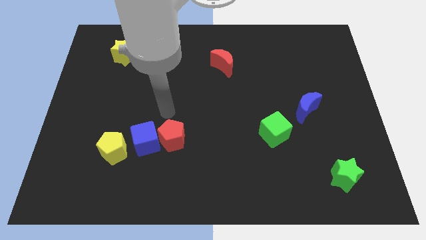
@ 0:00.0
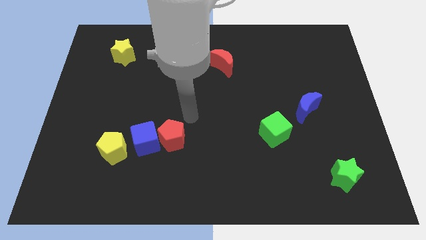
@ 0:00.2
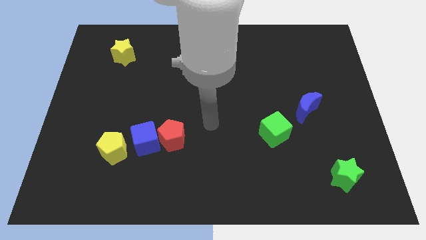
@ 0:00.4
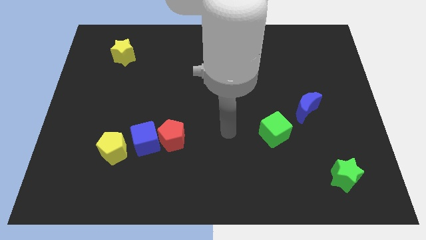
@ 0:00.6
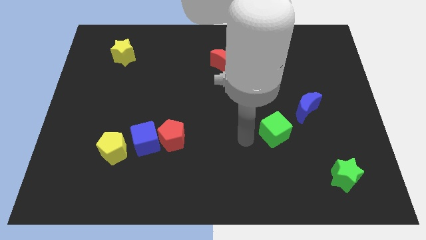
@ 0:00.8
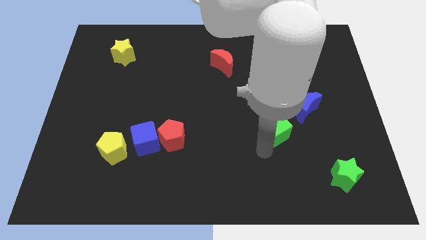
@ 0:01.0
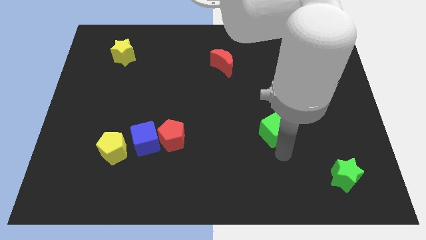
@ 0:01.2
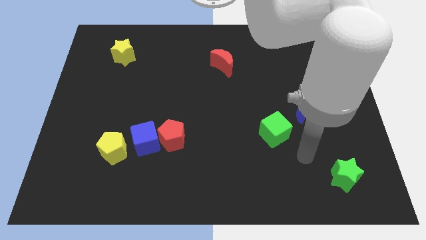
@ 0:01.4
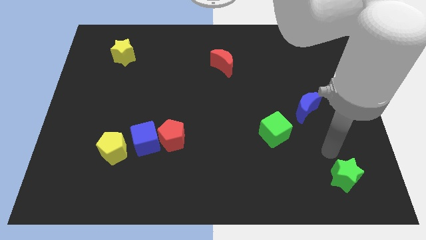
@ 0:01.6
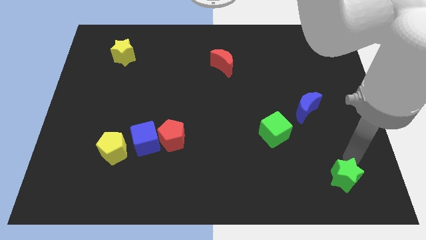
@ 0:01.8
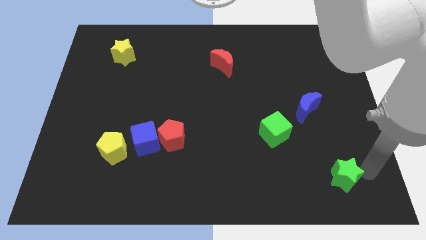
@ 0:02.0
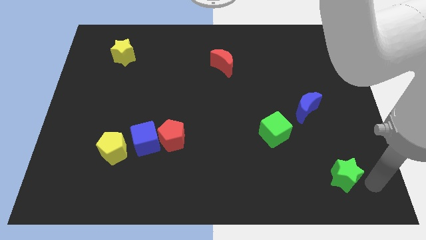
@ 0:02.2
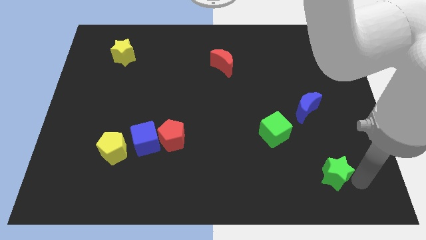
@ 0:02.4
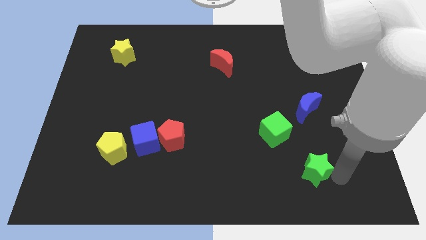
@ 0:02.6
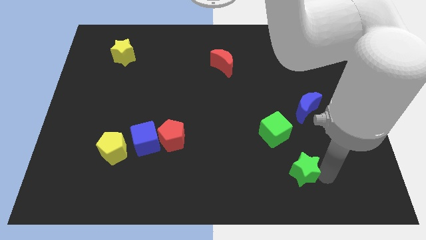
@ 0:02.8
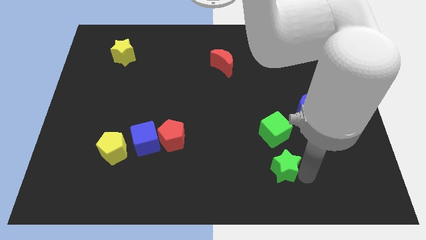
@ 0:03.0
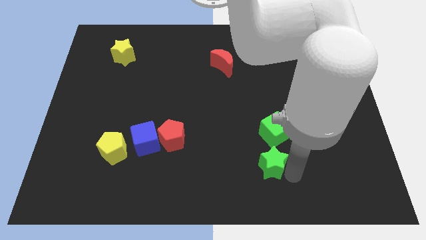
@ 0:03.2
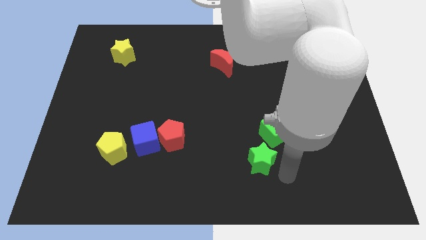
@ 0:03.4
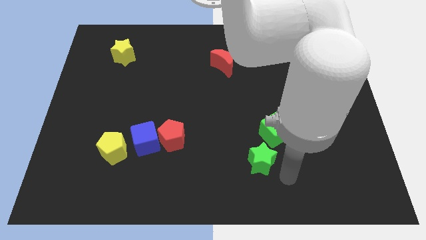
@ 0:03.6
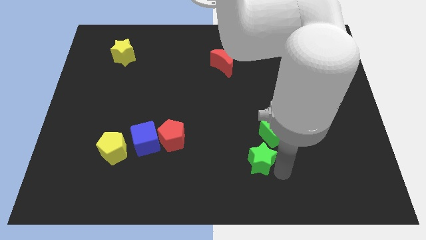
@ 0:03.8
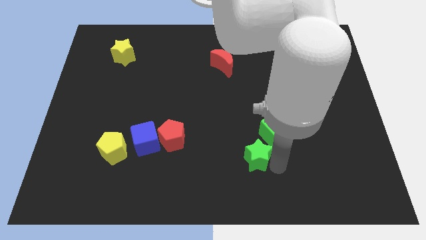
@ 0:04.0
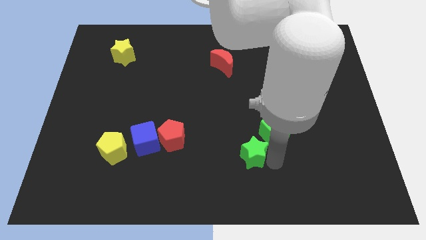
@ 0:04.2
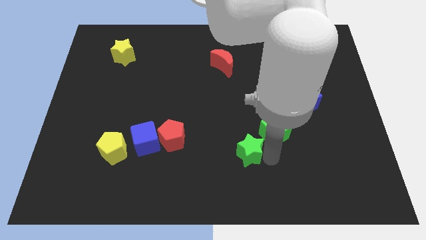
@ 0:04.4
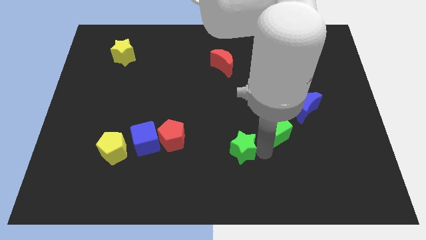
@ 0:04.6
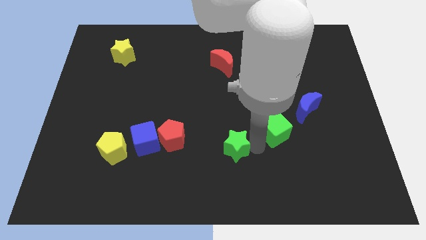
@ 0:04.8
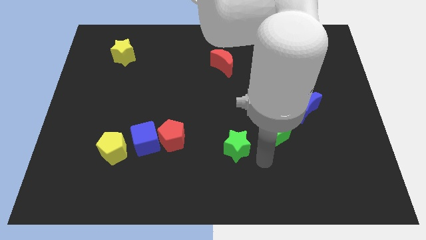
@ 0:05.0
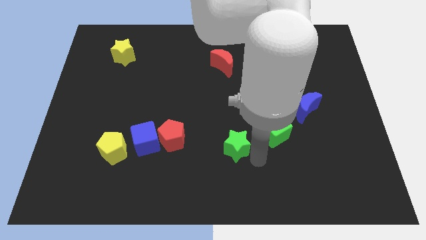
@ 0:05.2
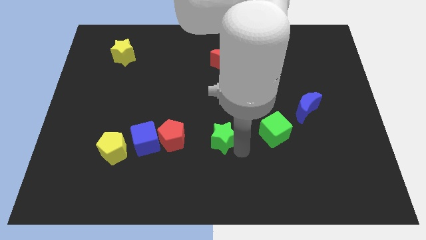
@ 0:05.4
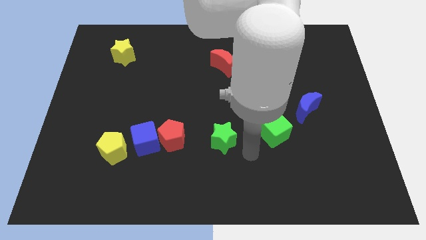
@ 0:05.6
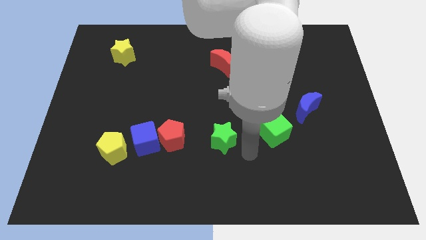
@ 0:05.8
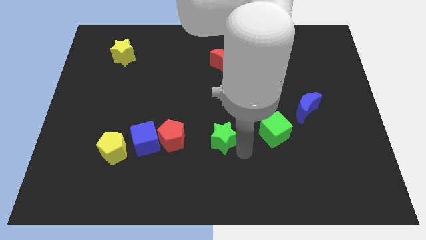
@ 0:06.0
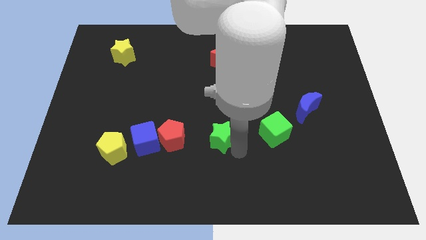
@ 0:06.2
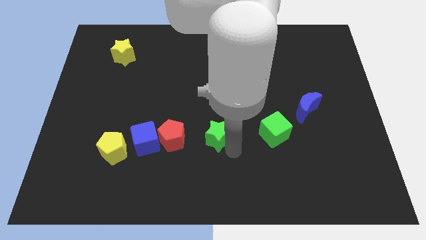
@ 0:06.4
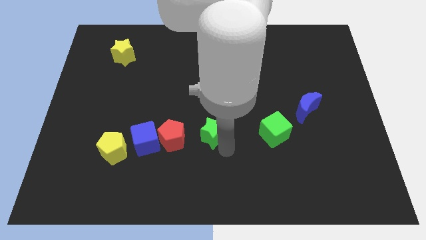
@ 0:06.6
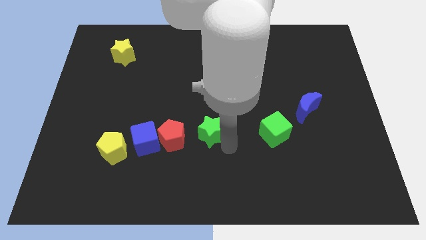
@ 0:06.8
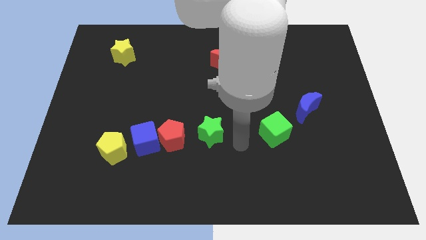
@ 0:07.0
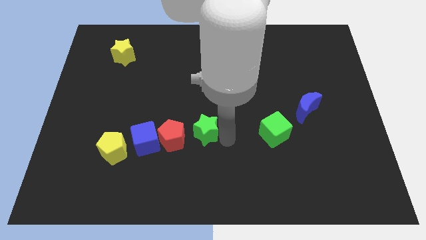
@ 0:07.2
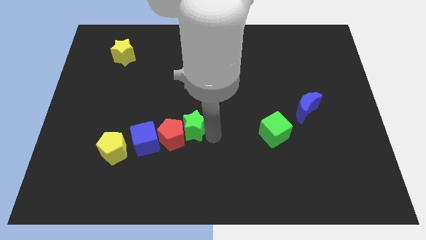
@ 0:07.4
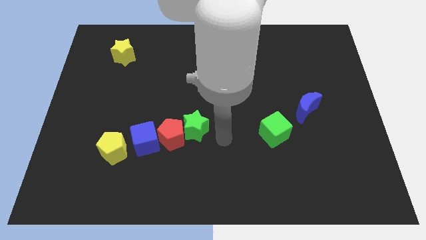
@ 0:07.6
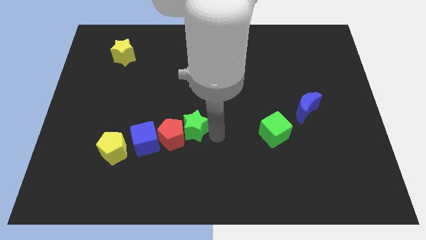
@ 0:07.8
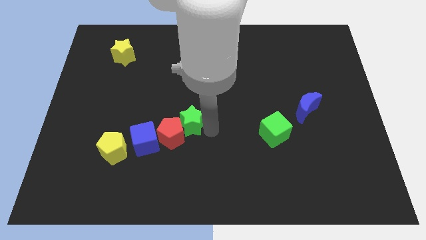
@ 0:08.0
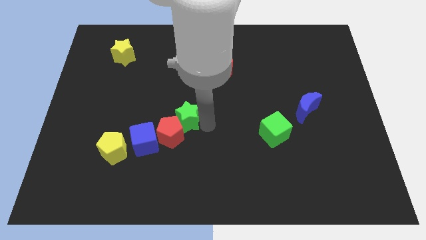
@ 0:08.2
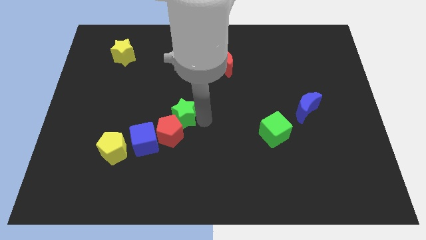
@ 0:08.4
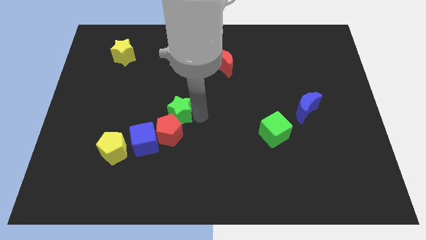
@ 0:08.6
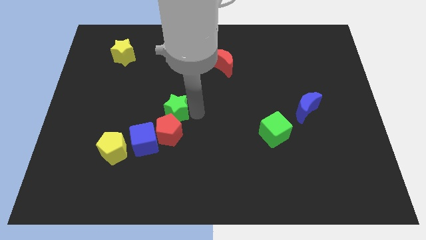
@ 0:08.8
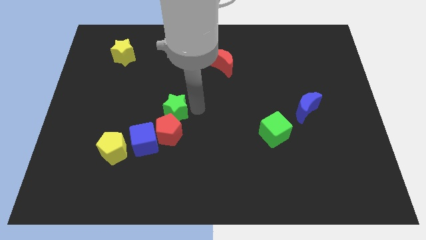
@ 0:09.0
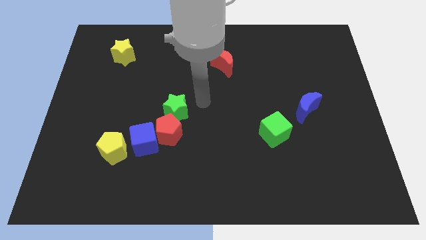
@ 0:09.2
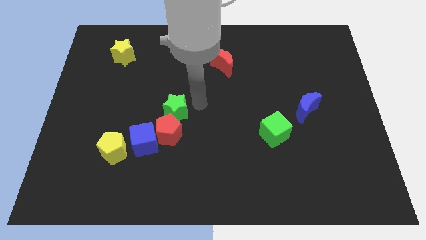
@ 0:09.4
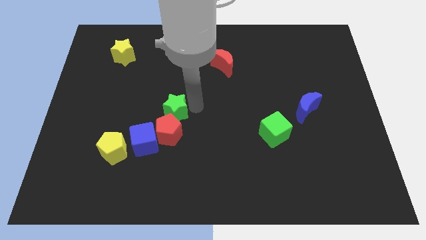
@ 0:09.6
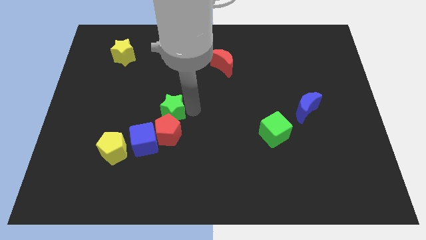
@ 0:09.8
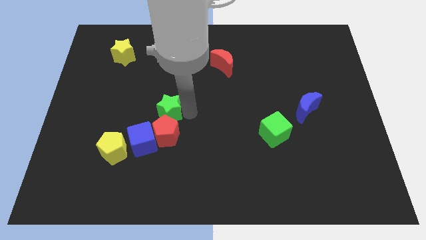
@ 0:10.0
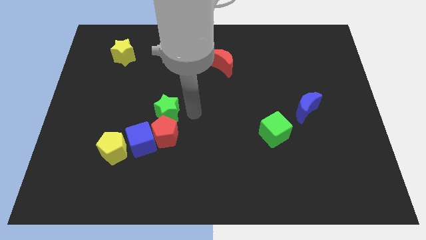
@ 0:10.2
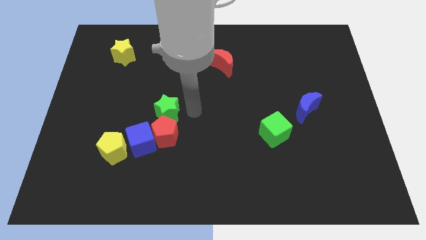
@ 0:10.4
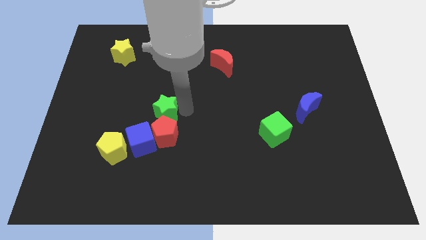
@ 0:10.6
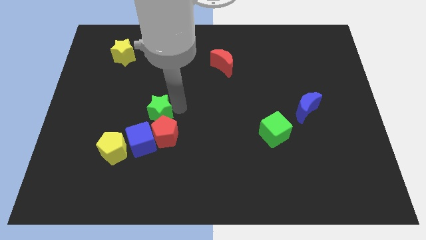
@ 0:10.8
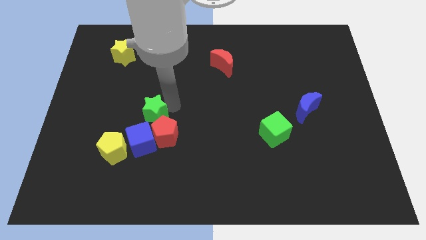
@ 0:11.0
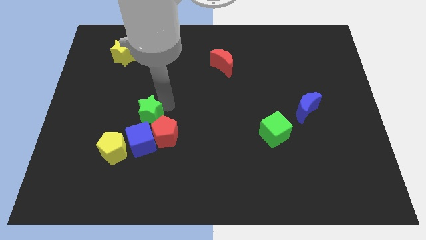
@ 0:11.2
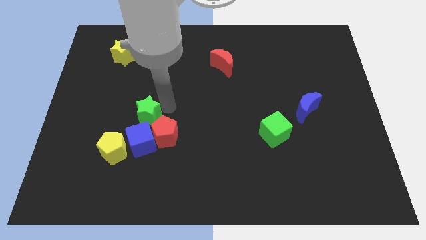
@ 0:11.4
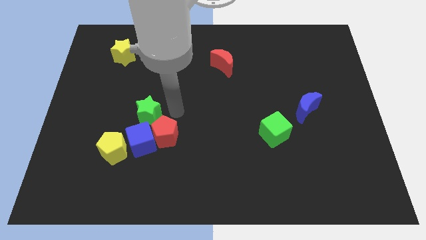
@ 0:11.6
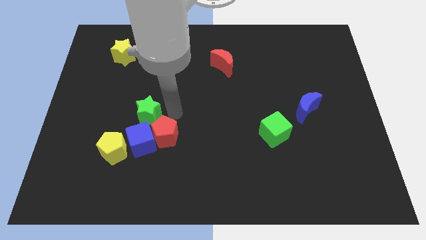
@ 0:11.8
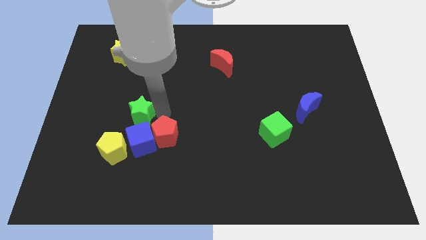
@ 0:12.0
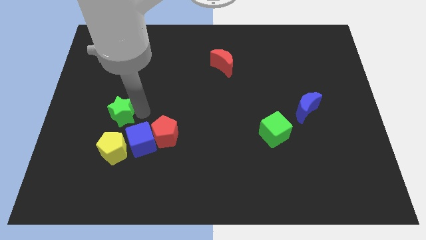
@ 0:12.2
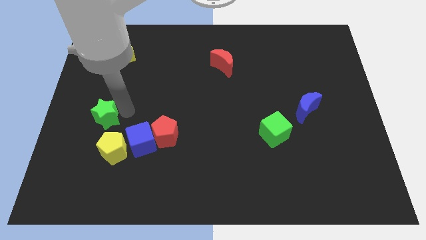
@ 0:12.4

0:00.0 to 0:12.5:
put the green star diagonally up and to the left of the yellow pentagon
